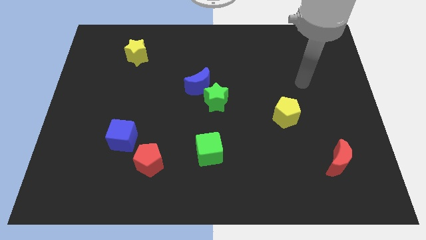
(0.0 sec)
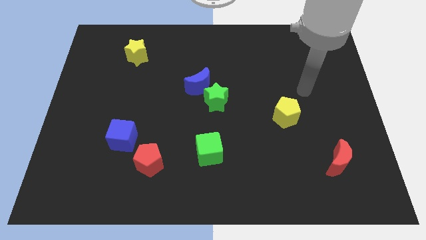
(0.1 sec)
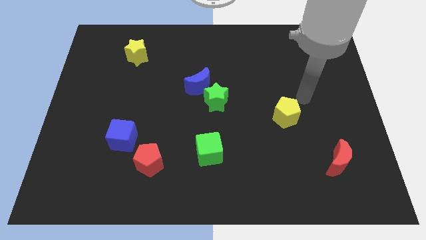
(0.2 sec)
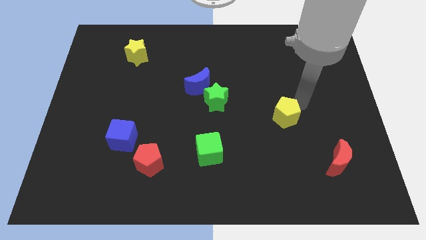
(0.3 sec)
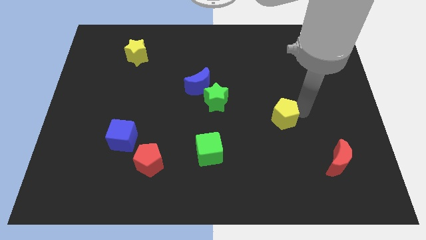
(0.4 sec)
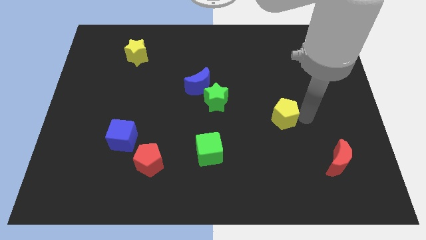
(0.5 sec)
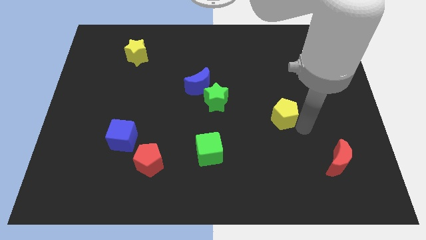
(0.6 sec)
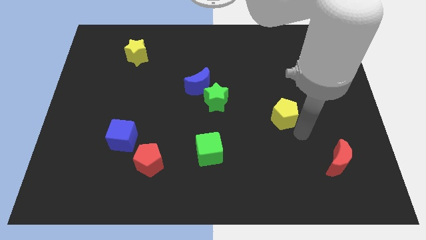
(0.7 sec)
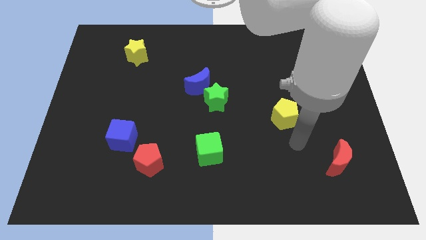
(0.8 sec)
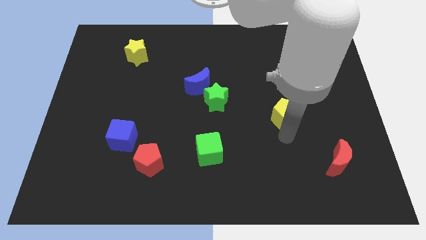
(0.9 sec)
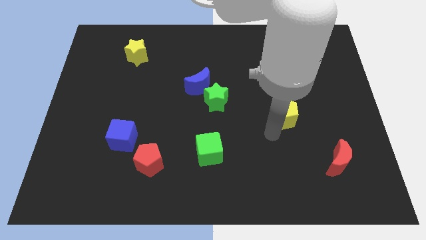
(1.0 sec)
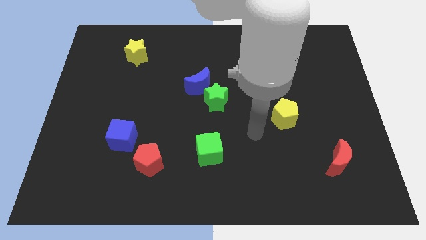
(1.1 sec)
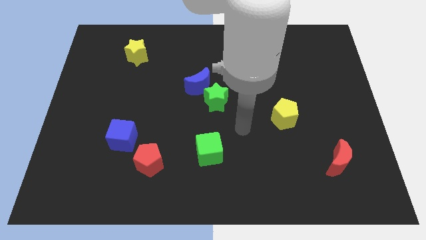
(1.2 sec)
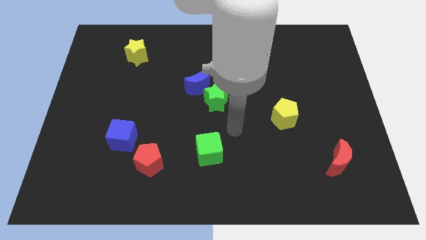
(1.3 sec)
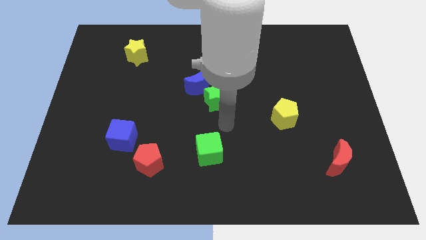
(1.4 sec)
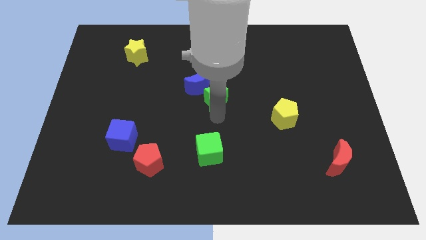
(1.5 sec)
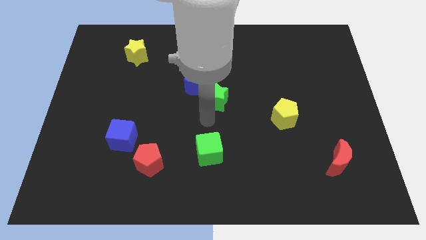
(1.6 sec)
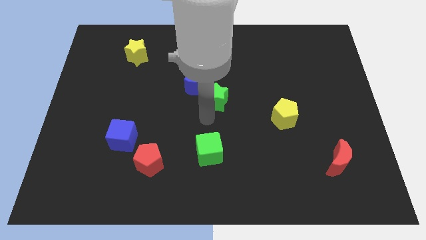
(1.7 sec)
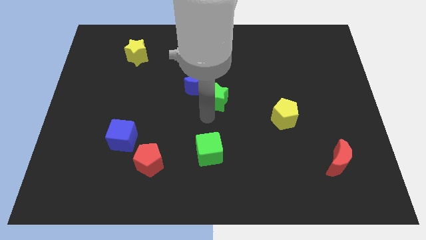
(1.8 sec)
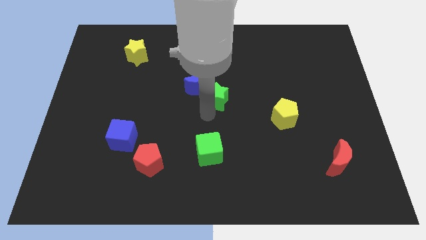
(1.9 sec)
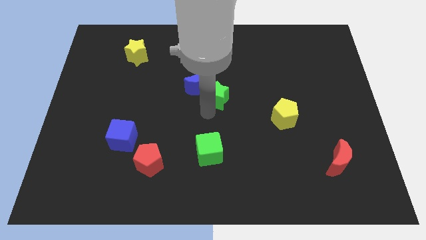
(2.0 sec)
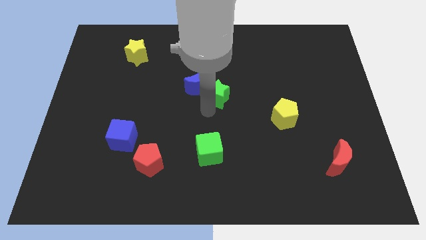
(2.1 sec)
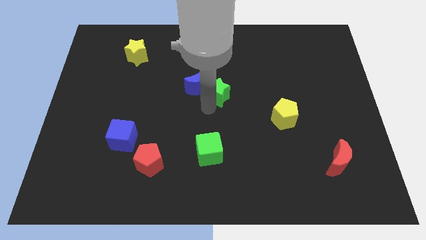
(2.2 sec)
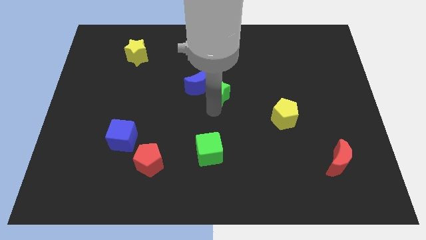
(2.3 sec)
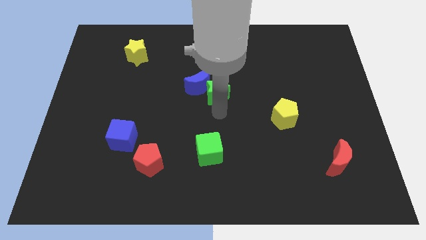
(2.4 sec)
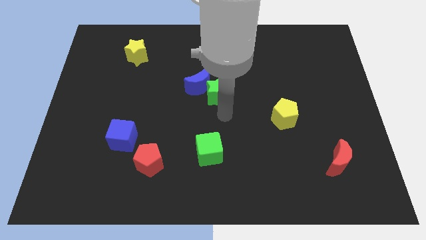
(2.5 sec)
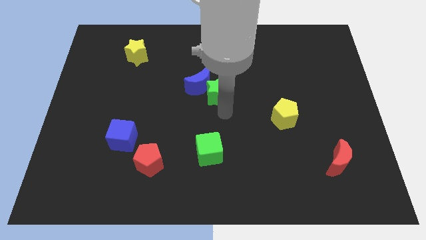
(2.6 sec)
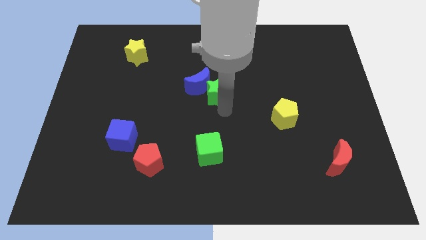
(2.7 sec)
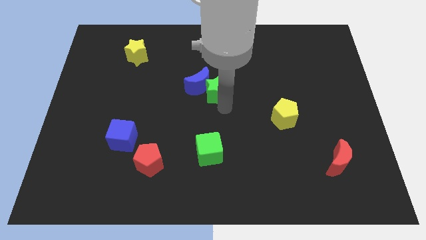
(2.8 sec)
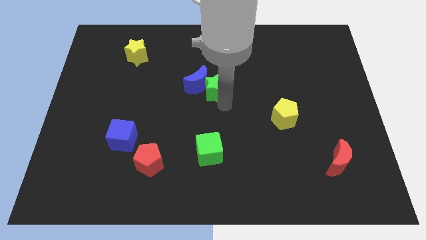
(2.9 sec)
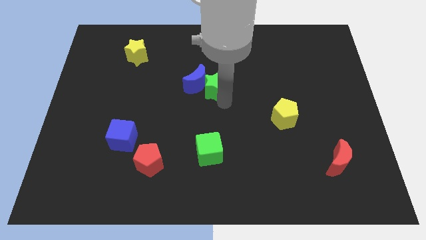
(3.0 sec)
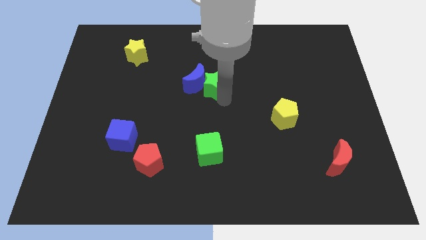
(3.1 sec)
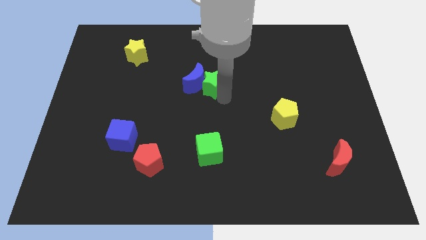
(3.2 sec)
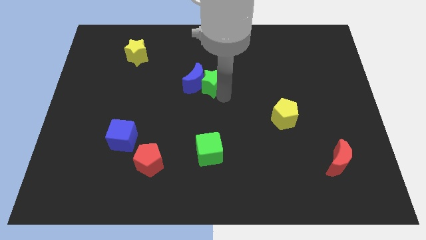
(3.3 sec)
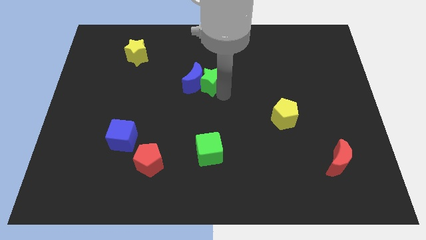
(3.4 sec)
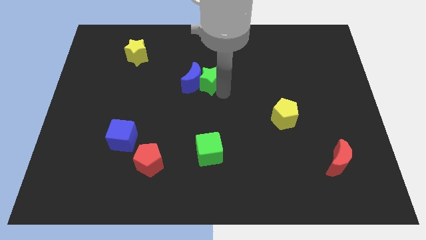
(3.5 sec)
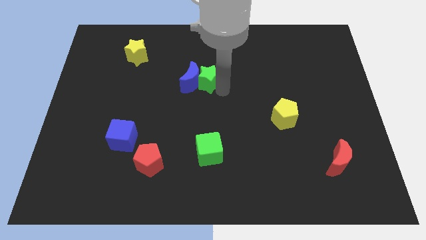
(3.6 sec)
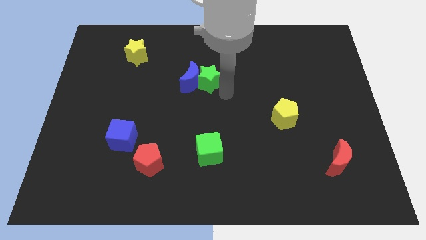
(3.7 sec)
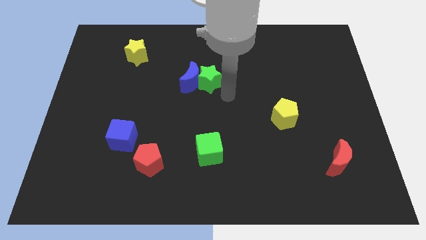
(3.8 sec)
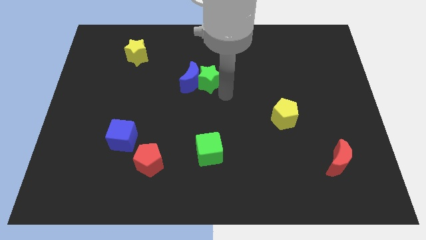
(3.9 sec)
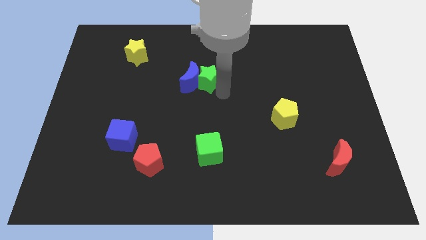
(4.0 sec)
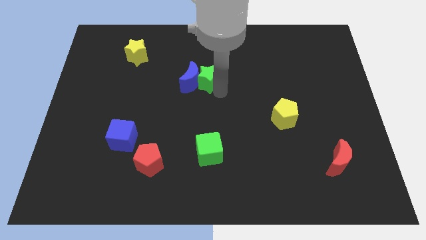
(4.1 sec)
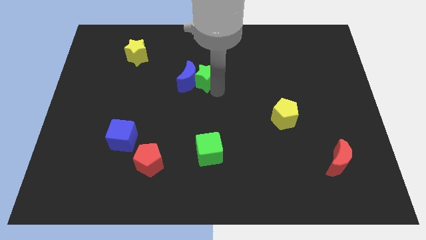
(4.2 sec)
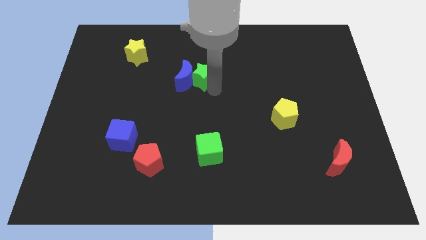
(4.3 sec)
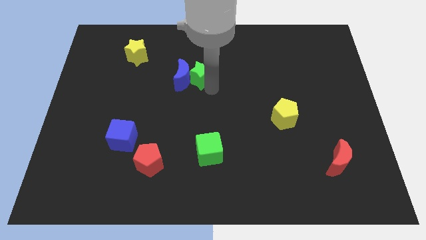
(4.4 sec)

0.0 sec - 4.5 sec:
slightly move the green star up and then to the left

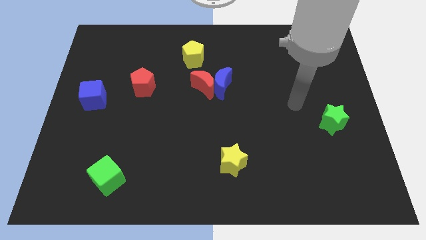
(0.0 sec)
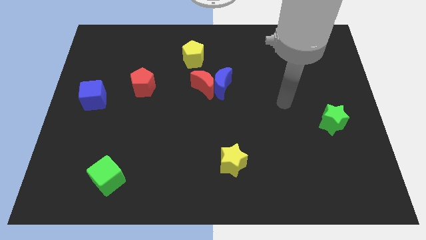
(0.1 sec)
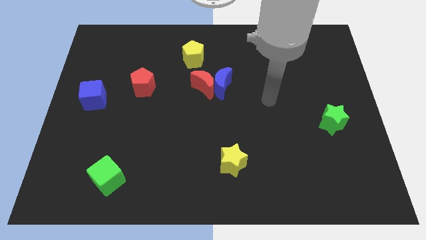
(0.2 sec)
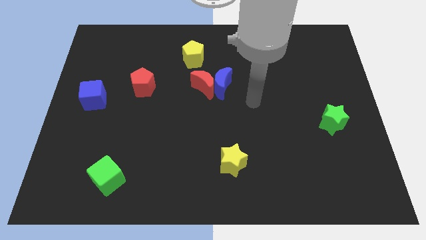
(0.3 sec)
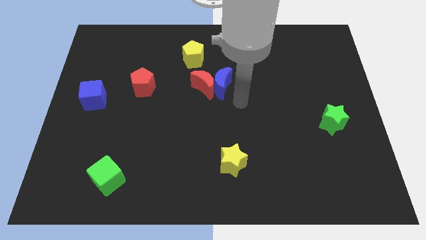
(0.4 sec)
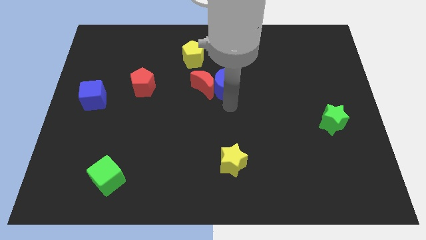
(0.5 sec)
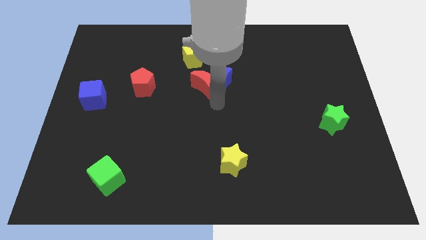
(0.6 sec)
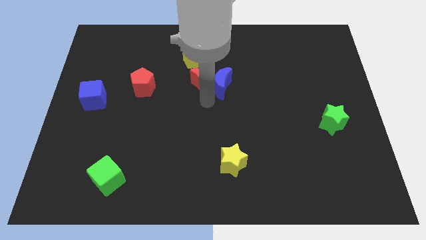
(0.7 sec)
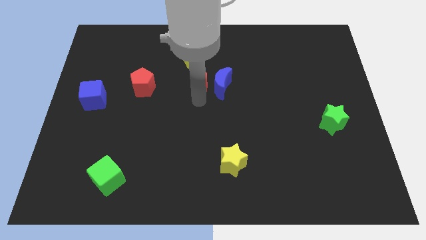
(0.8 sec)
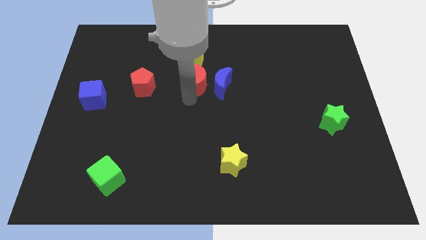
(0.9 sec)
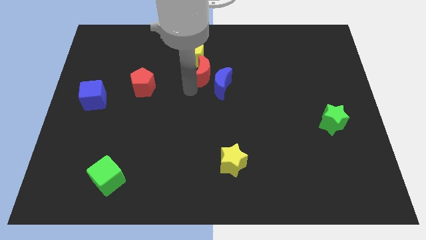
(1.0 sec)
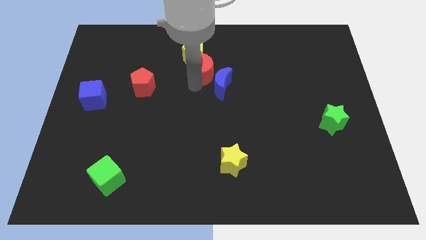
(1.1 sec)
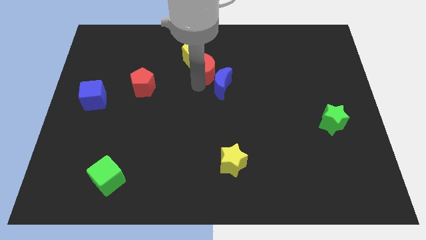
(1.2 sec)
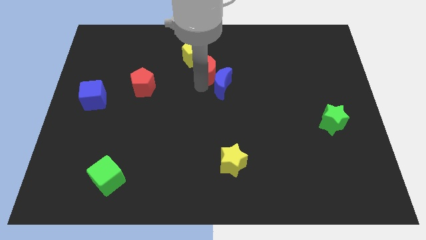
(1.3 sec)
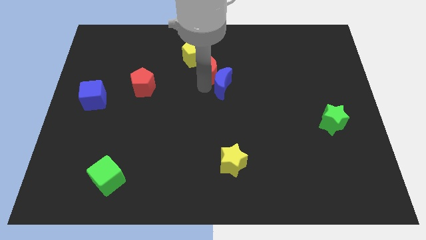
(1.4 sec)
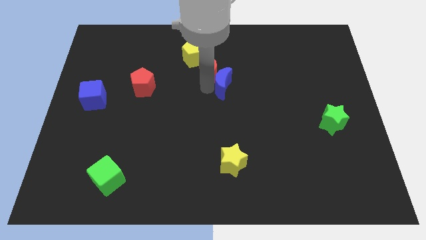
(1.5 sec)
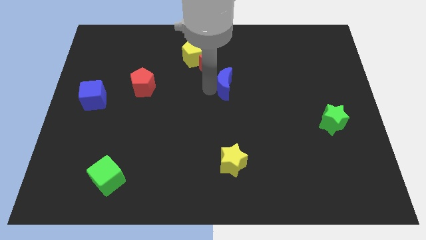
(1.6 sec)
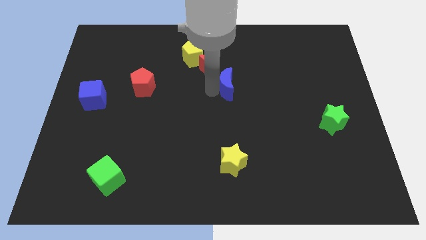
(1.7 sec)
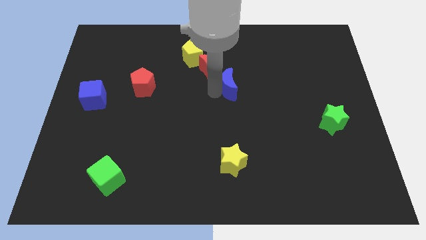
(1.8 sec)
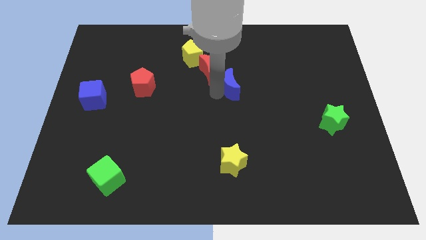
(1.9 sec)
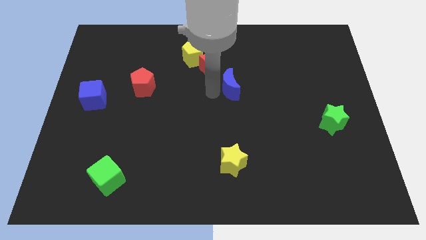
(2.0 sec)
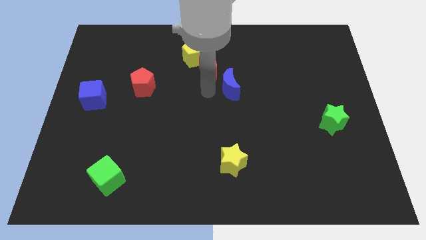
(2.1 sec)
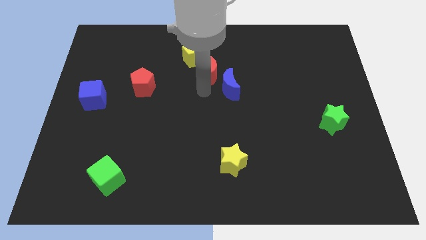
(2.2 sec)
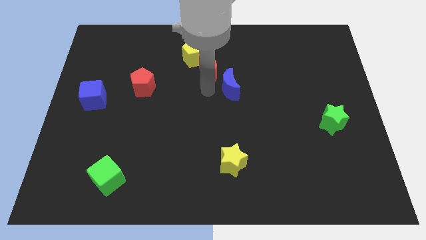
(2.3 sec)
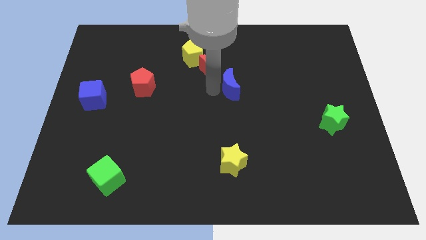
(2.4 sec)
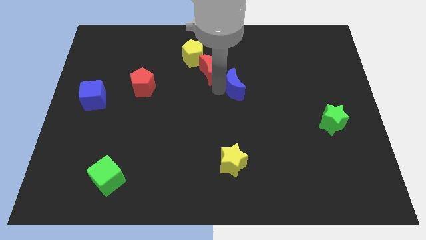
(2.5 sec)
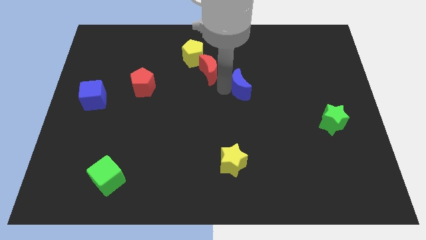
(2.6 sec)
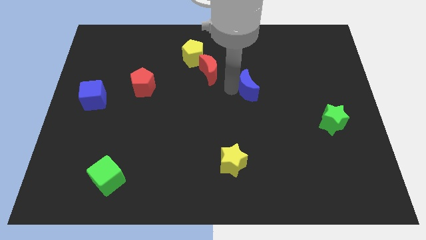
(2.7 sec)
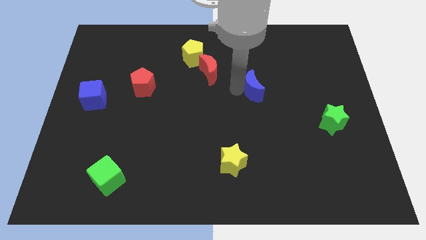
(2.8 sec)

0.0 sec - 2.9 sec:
slightly slide the blue moon right

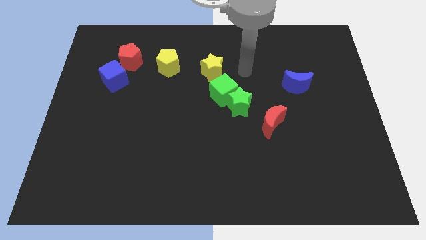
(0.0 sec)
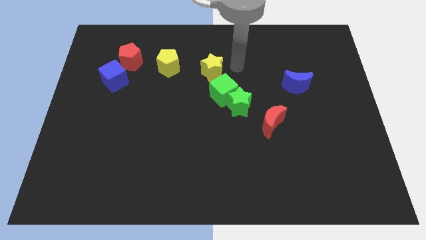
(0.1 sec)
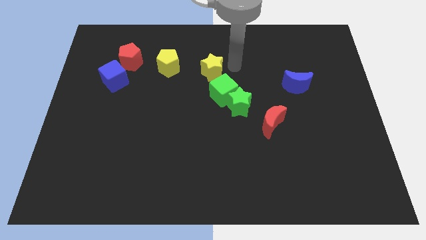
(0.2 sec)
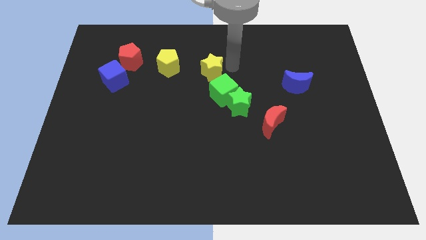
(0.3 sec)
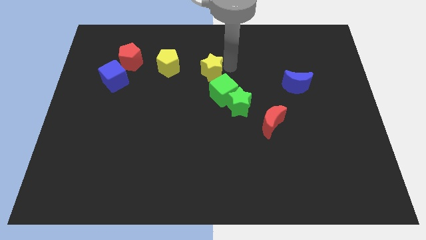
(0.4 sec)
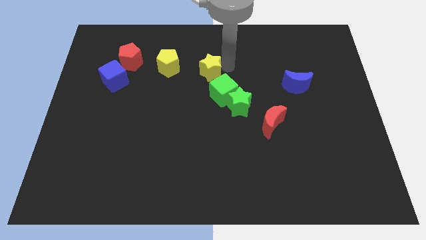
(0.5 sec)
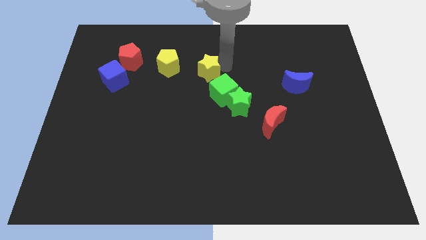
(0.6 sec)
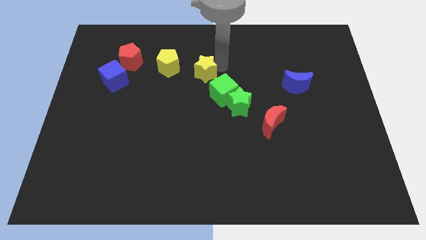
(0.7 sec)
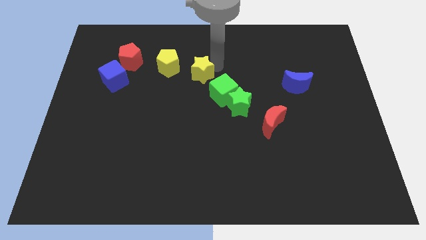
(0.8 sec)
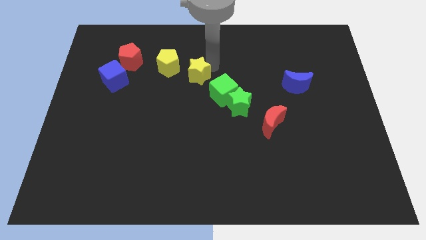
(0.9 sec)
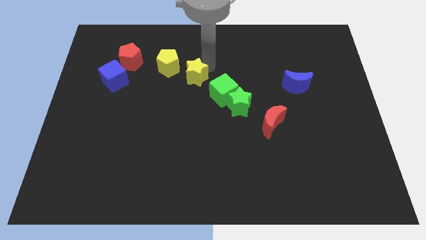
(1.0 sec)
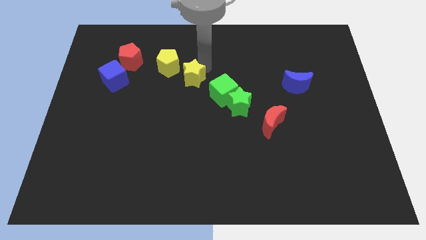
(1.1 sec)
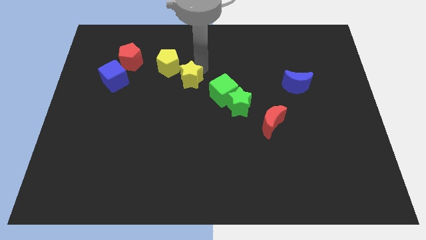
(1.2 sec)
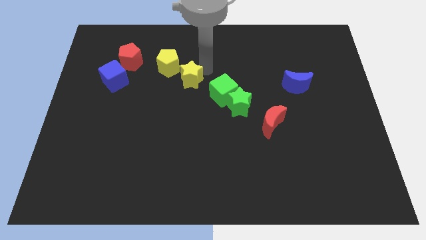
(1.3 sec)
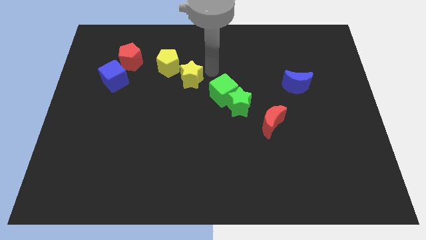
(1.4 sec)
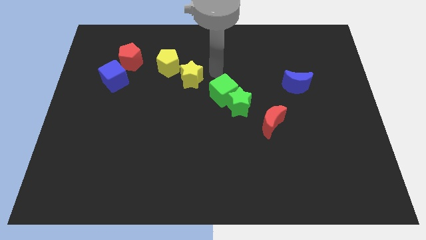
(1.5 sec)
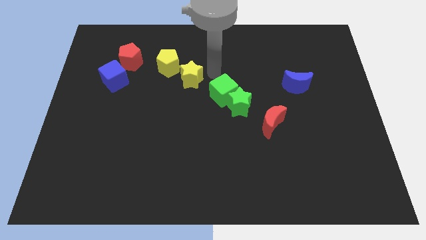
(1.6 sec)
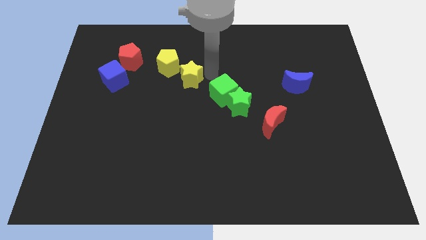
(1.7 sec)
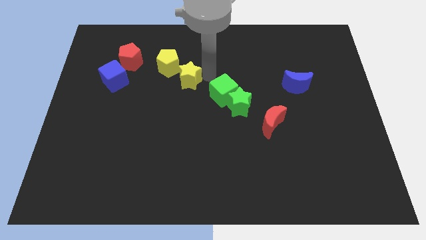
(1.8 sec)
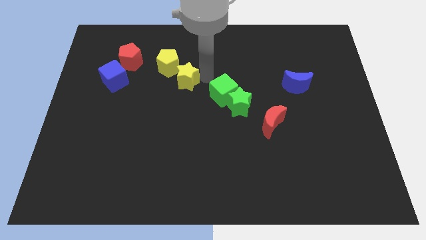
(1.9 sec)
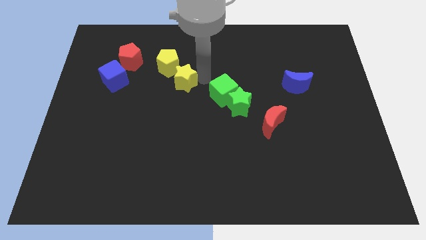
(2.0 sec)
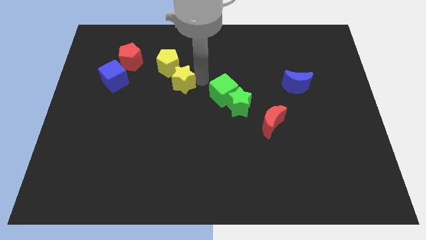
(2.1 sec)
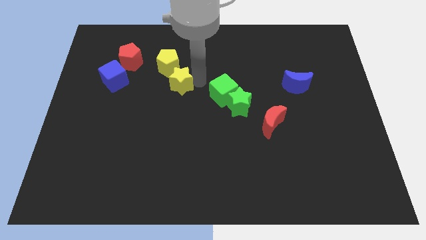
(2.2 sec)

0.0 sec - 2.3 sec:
slightly slide the yellow star left
